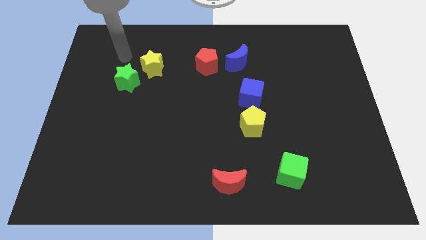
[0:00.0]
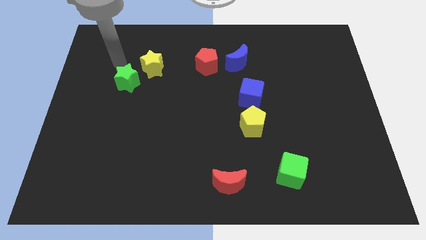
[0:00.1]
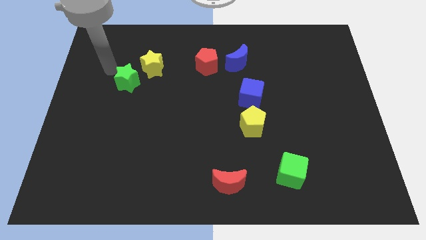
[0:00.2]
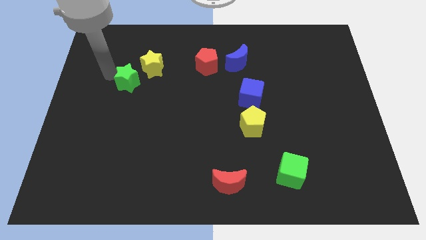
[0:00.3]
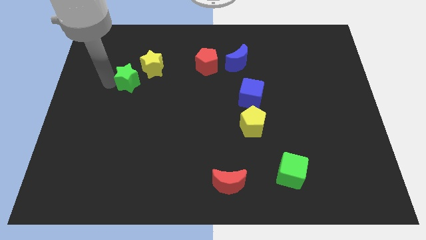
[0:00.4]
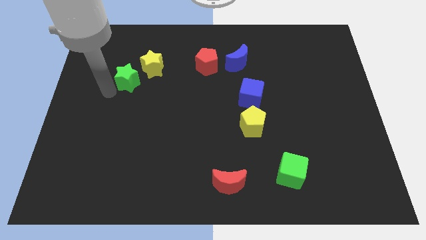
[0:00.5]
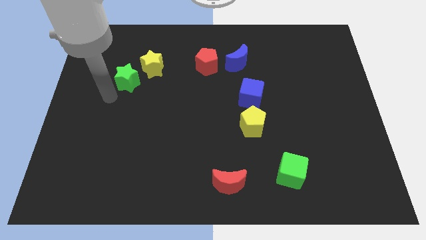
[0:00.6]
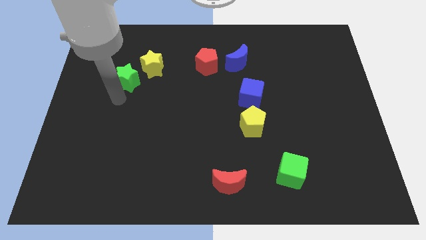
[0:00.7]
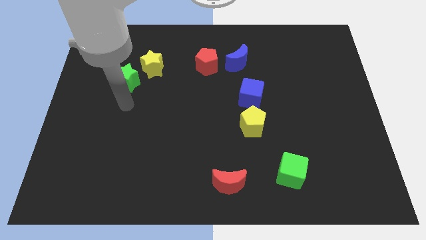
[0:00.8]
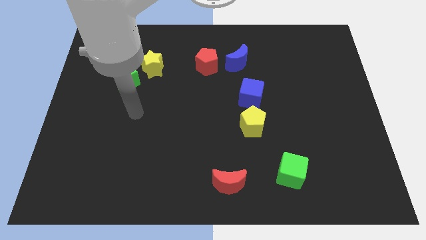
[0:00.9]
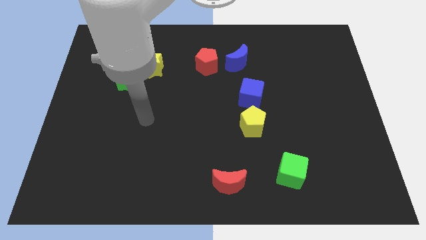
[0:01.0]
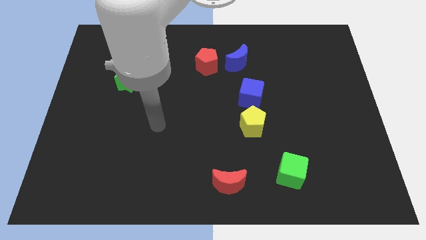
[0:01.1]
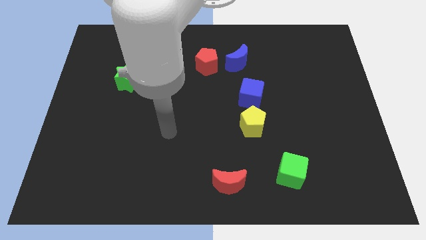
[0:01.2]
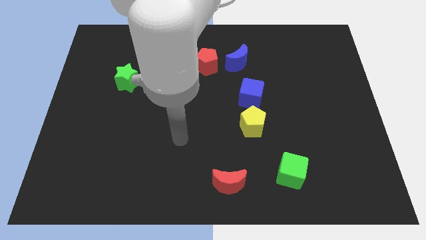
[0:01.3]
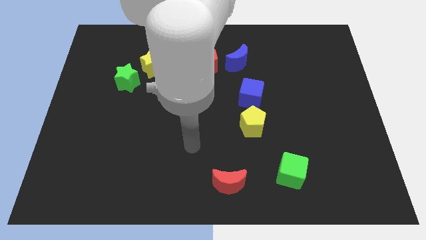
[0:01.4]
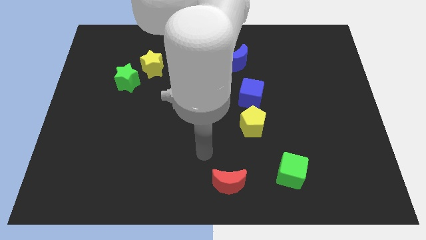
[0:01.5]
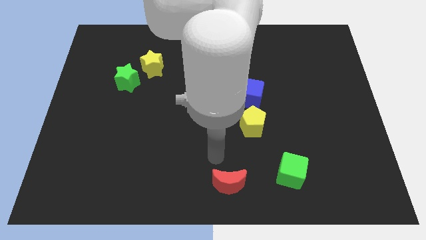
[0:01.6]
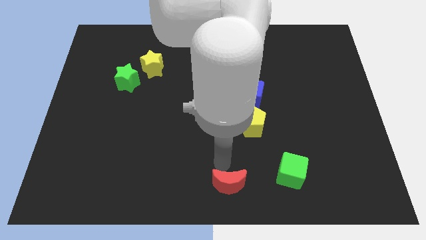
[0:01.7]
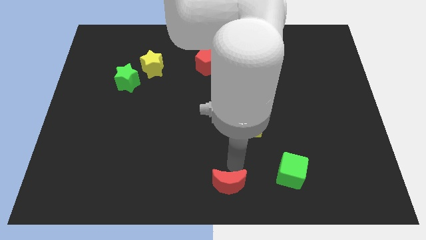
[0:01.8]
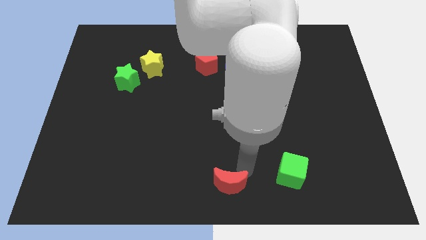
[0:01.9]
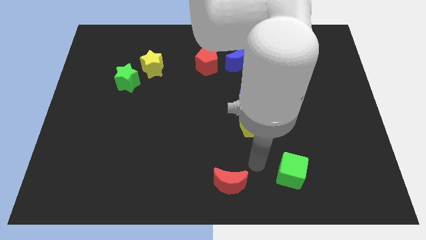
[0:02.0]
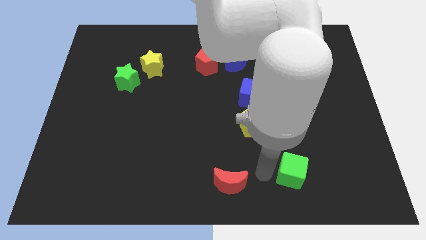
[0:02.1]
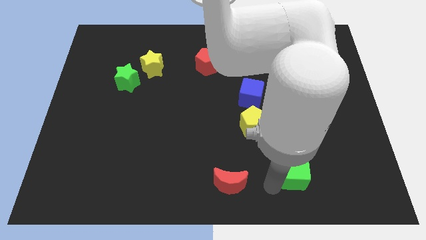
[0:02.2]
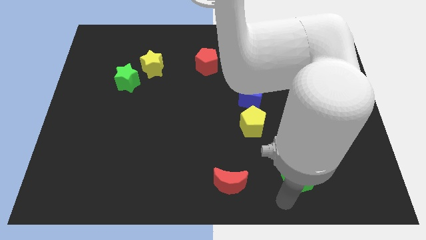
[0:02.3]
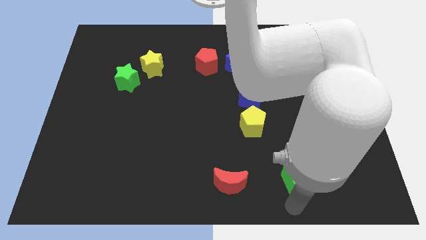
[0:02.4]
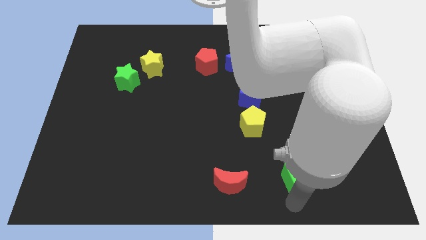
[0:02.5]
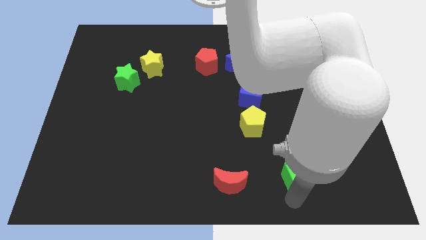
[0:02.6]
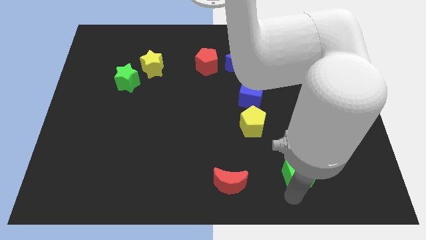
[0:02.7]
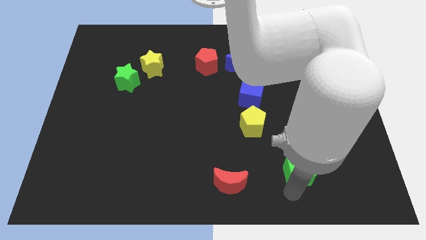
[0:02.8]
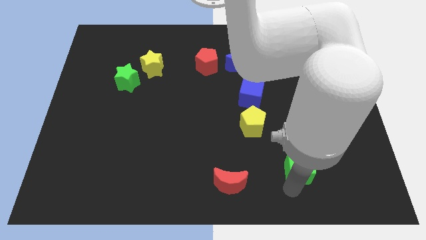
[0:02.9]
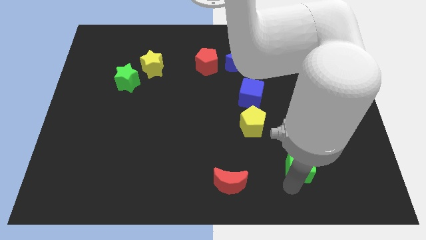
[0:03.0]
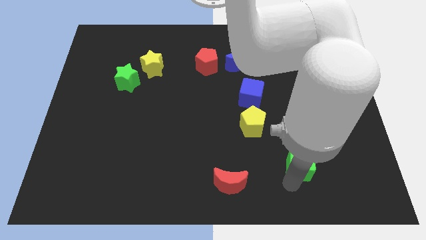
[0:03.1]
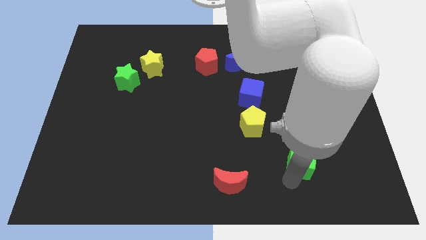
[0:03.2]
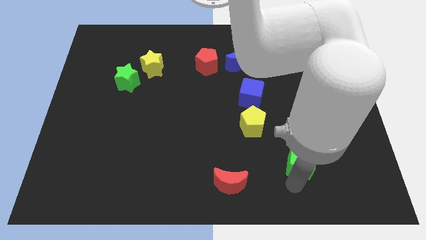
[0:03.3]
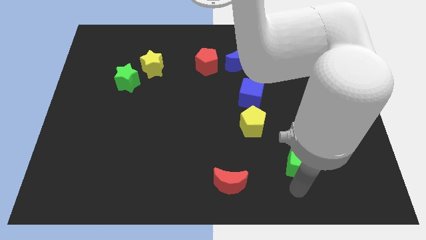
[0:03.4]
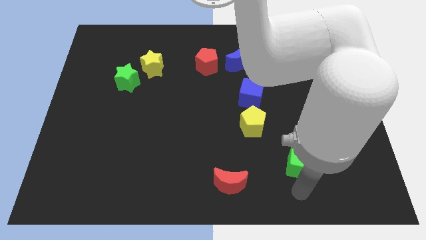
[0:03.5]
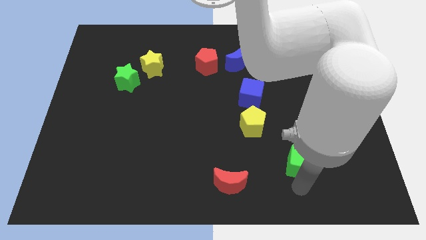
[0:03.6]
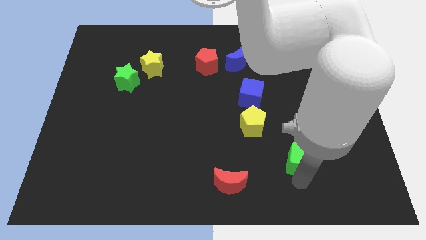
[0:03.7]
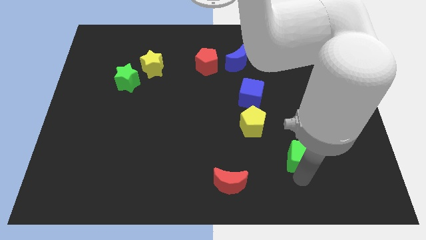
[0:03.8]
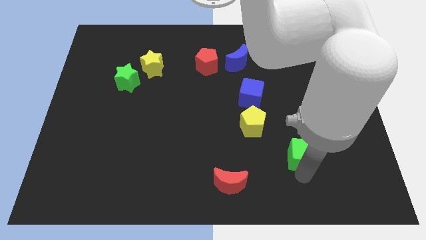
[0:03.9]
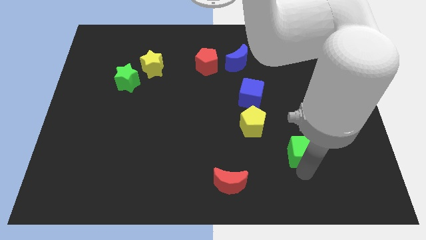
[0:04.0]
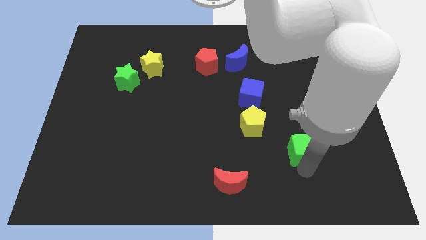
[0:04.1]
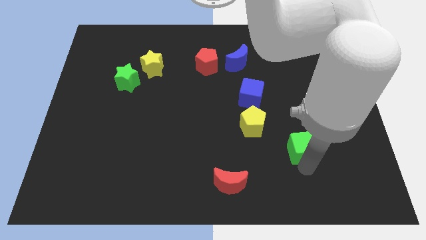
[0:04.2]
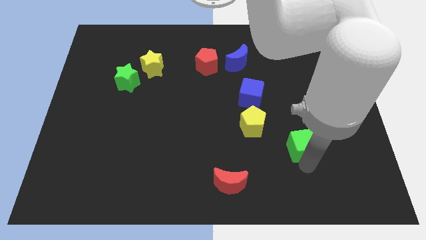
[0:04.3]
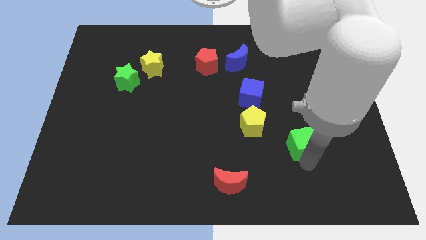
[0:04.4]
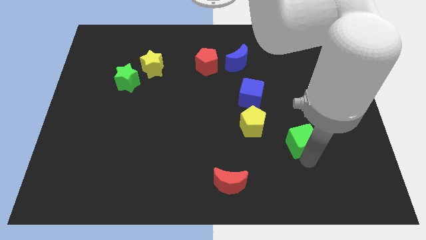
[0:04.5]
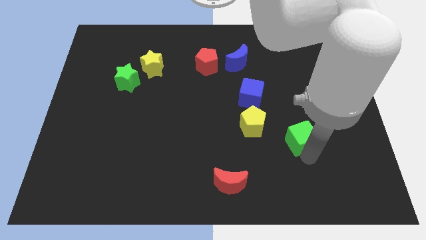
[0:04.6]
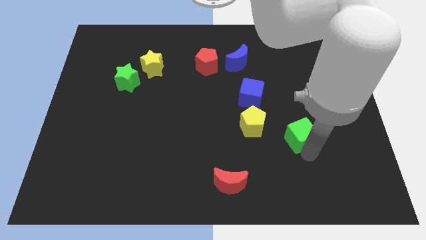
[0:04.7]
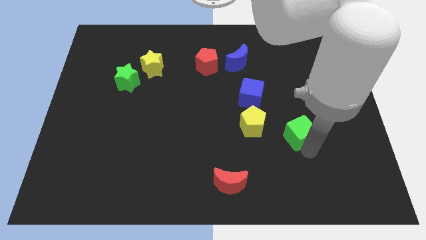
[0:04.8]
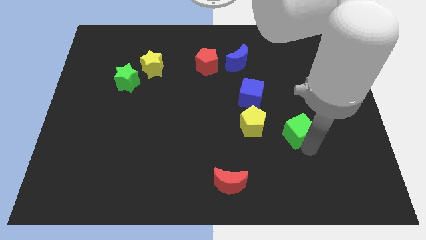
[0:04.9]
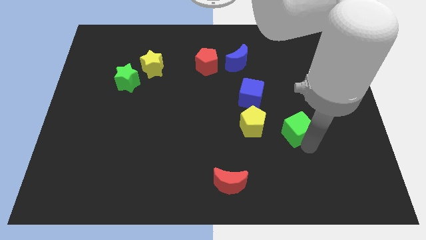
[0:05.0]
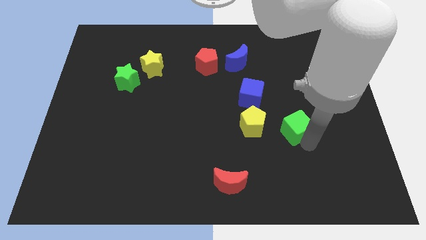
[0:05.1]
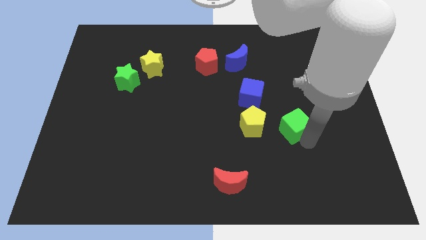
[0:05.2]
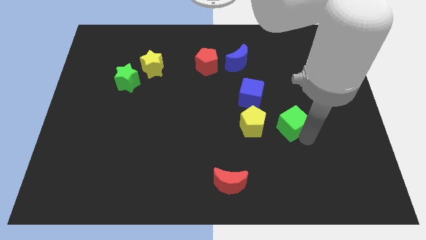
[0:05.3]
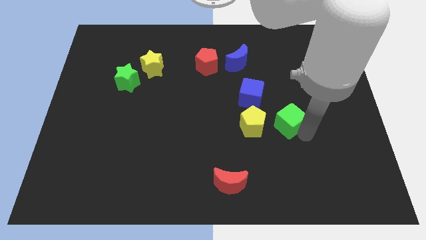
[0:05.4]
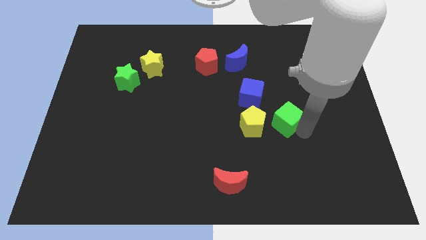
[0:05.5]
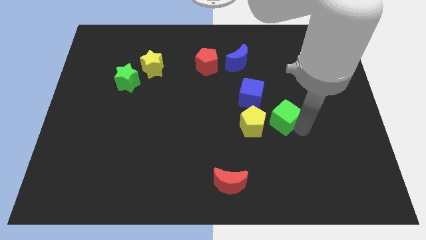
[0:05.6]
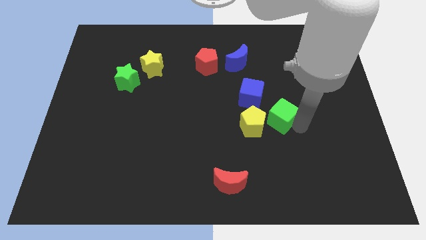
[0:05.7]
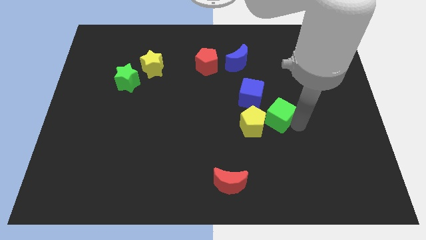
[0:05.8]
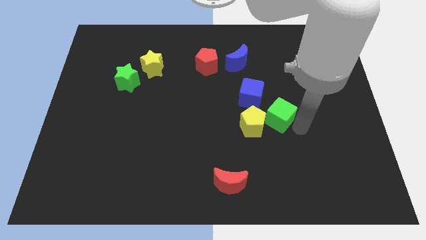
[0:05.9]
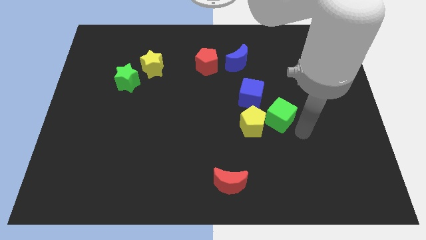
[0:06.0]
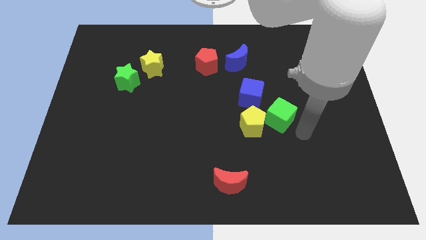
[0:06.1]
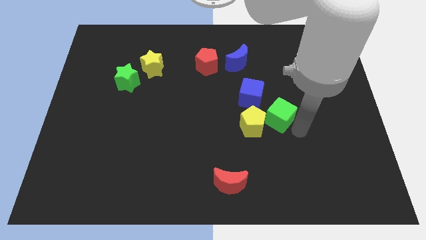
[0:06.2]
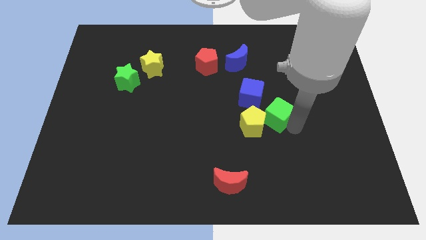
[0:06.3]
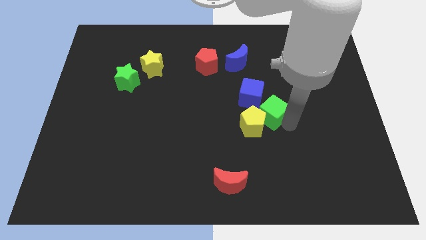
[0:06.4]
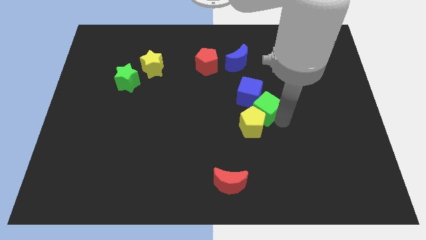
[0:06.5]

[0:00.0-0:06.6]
put the green cube next to the blue cube

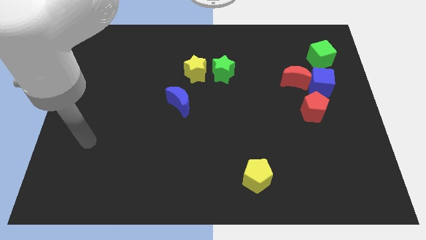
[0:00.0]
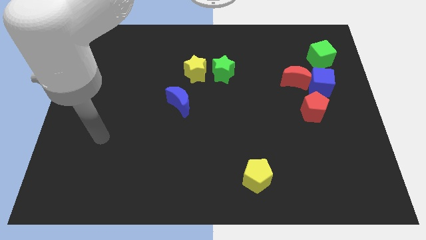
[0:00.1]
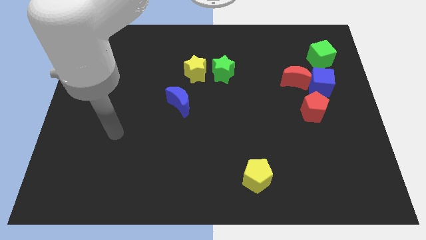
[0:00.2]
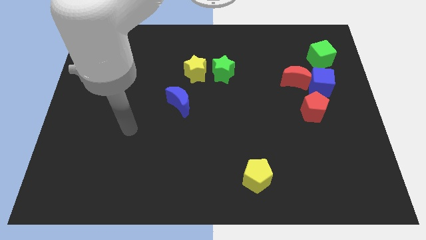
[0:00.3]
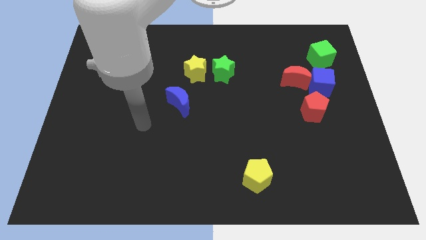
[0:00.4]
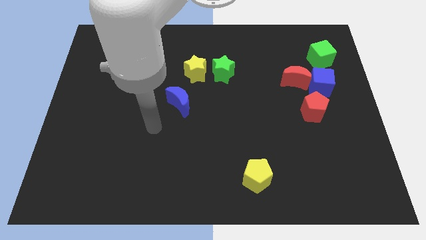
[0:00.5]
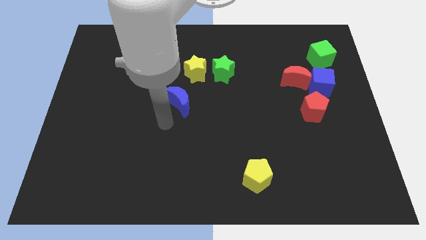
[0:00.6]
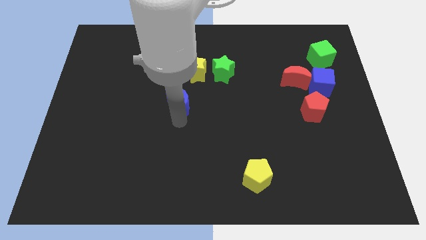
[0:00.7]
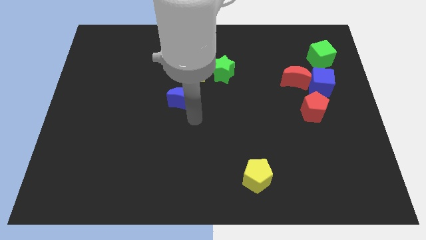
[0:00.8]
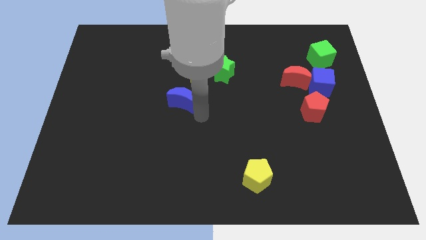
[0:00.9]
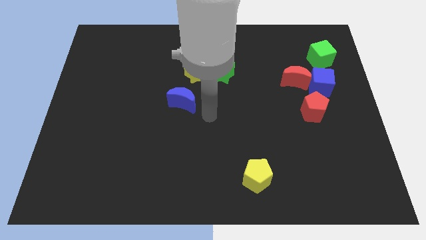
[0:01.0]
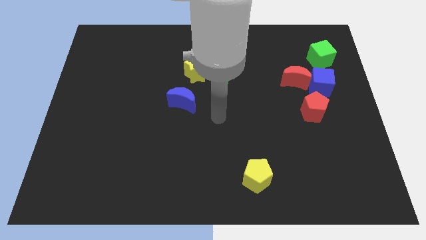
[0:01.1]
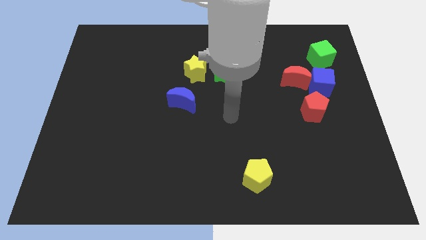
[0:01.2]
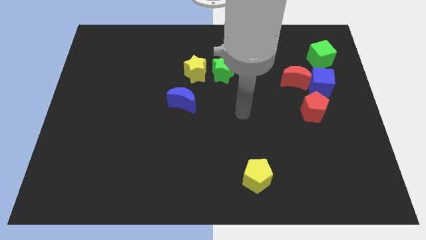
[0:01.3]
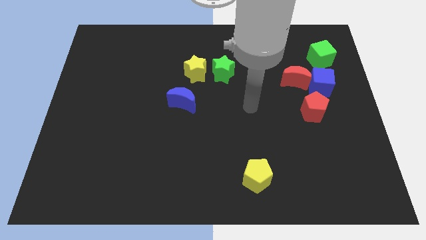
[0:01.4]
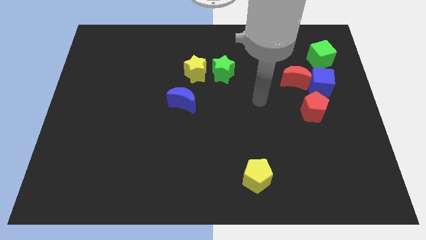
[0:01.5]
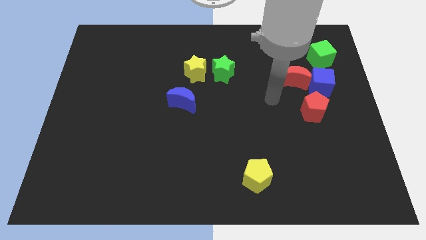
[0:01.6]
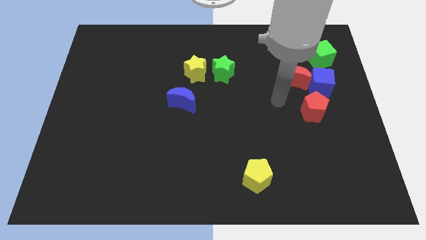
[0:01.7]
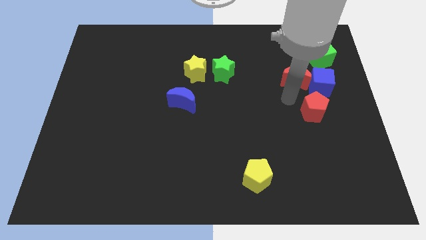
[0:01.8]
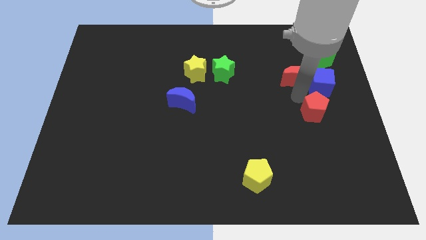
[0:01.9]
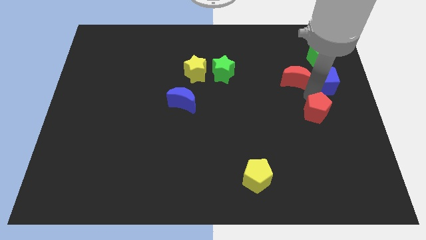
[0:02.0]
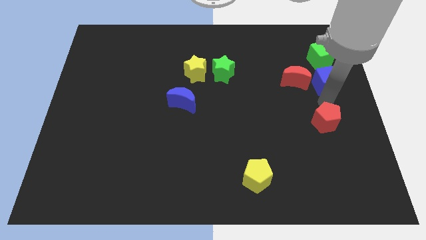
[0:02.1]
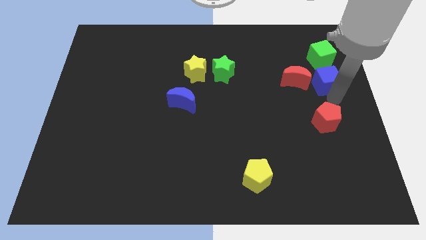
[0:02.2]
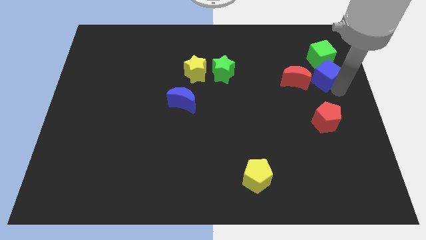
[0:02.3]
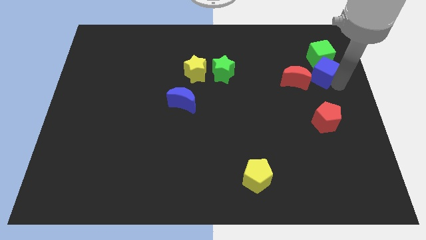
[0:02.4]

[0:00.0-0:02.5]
move the green cube next to the blue cube
